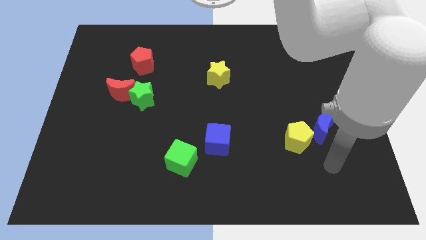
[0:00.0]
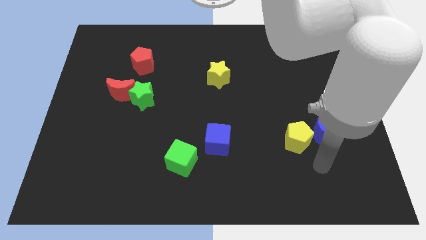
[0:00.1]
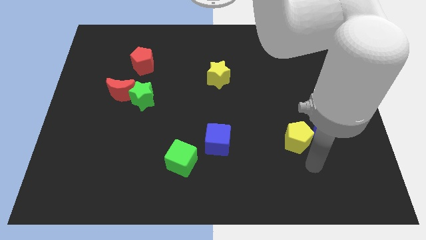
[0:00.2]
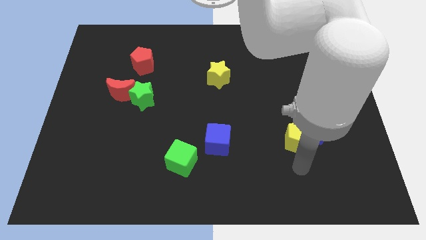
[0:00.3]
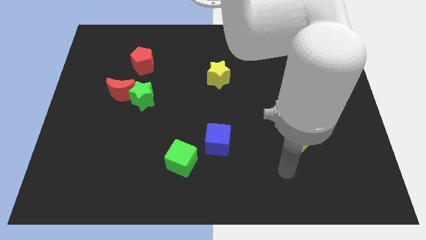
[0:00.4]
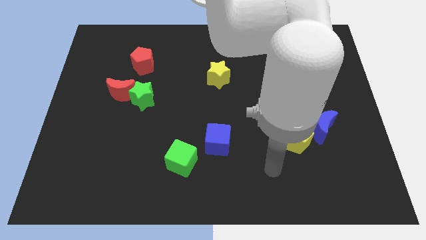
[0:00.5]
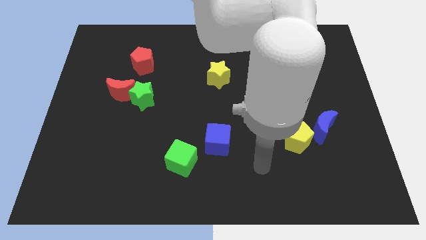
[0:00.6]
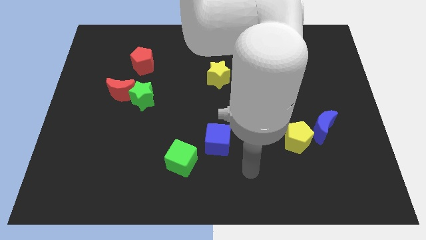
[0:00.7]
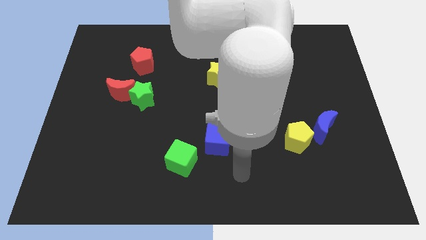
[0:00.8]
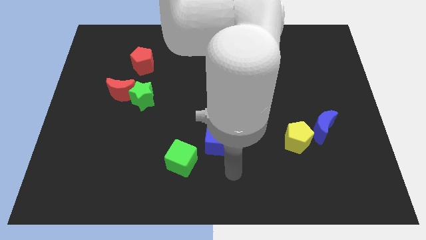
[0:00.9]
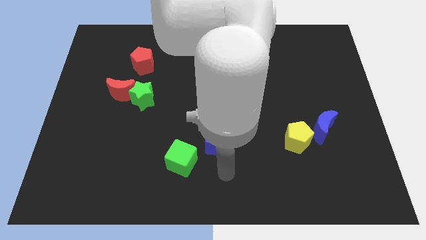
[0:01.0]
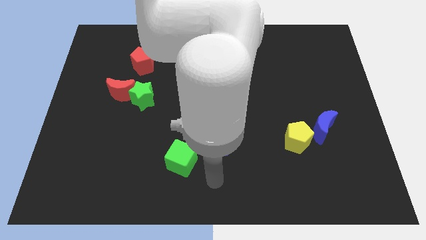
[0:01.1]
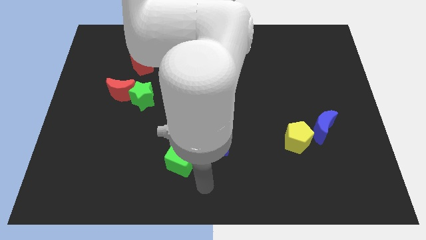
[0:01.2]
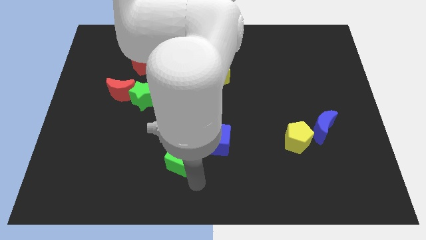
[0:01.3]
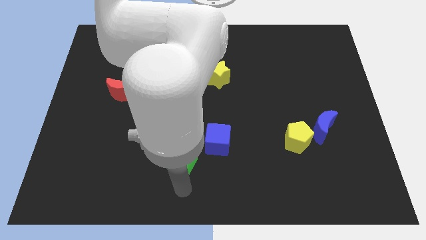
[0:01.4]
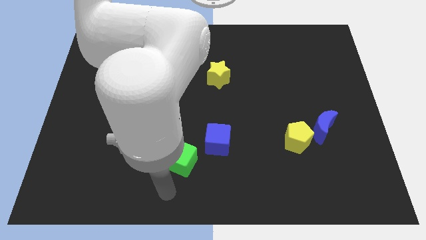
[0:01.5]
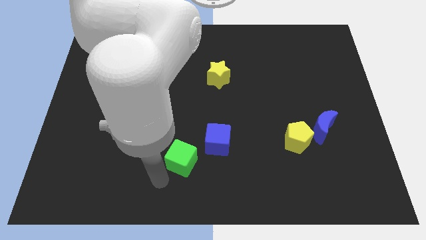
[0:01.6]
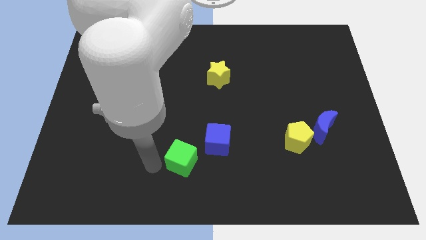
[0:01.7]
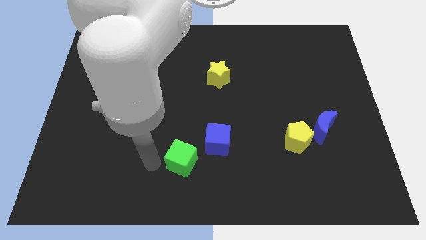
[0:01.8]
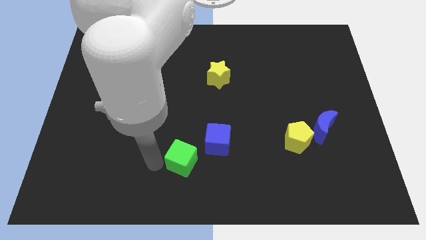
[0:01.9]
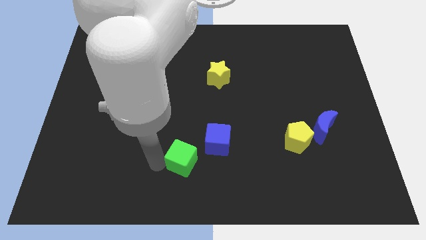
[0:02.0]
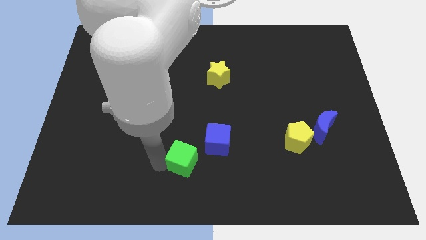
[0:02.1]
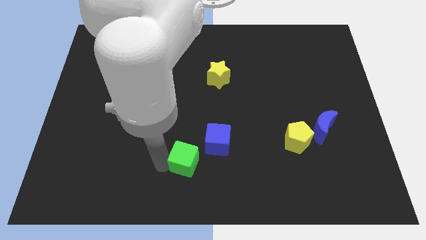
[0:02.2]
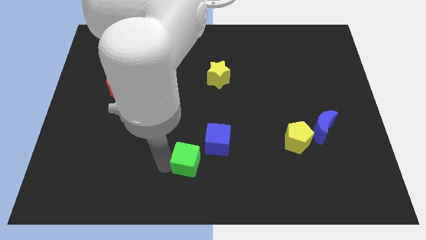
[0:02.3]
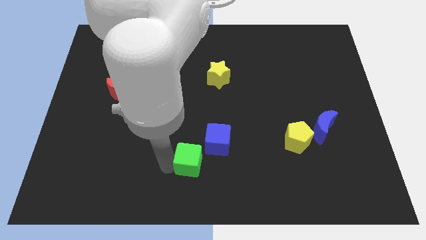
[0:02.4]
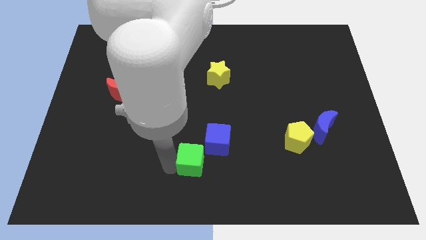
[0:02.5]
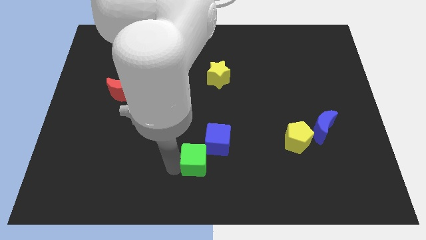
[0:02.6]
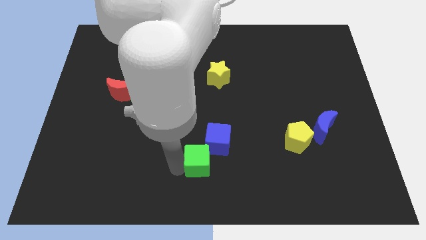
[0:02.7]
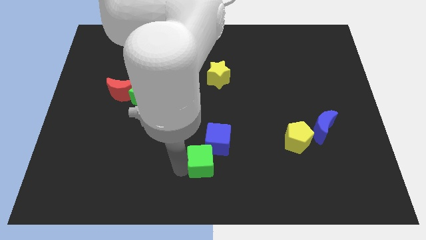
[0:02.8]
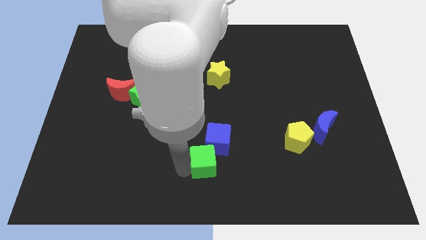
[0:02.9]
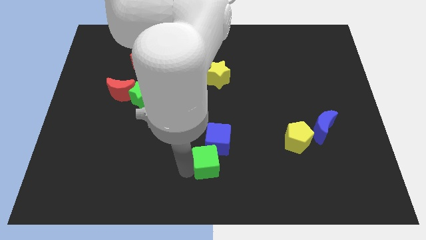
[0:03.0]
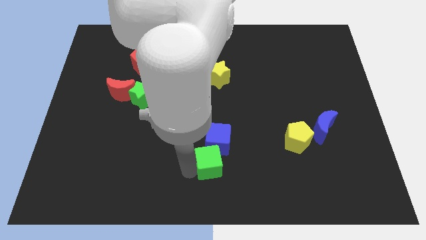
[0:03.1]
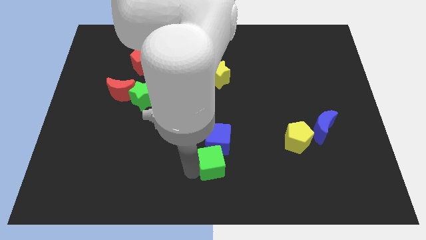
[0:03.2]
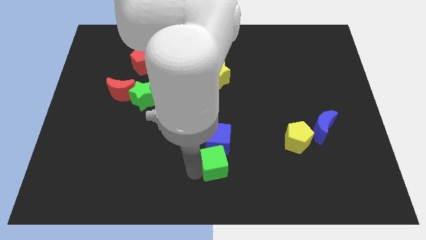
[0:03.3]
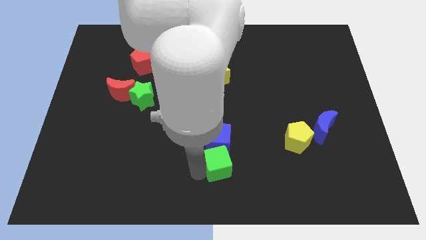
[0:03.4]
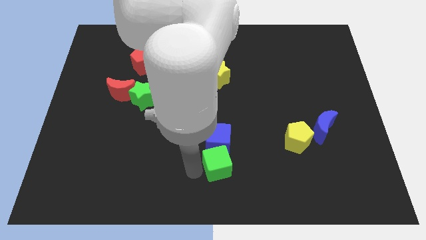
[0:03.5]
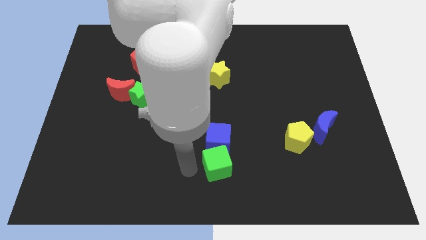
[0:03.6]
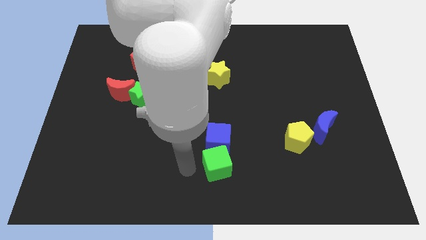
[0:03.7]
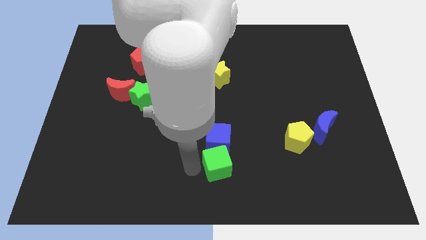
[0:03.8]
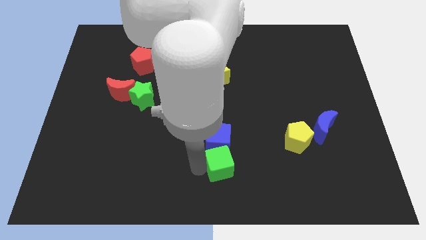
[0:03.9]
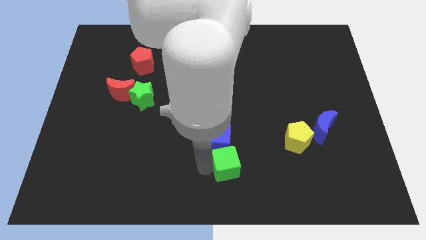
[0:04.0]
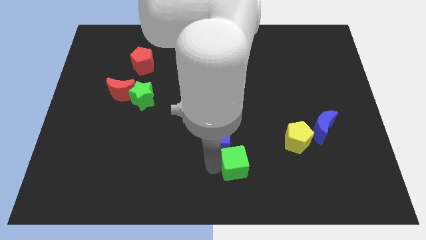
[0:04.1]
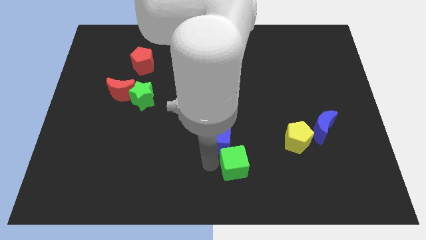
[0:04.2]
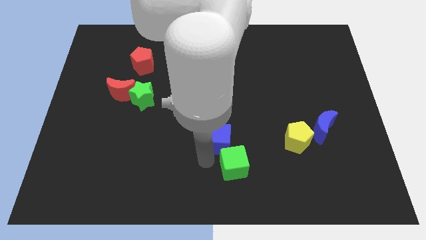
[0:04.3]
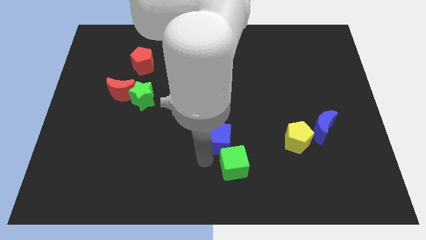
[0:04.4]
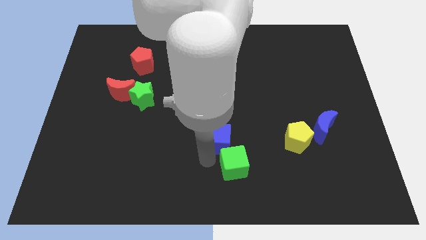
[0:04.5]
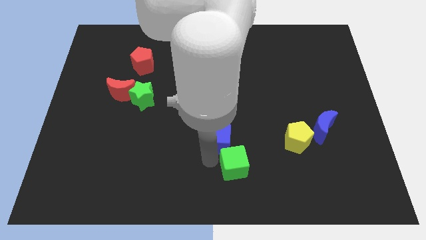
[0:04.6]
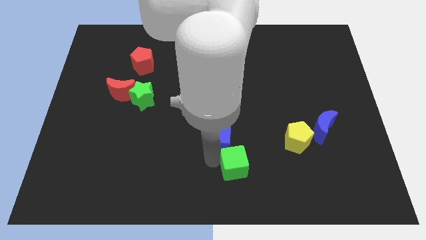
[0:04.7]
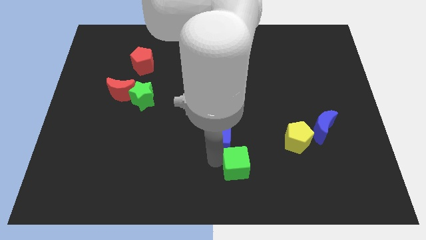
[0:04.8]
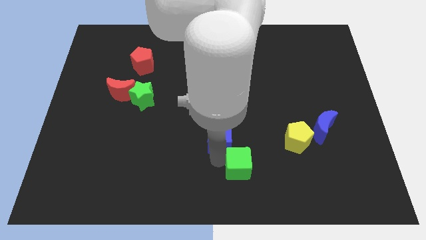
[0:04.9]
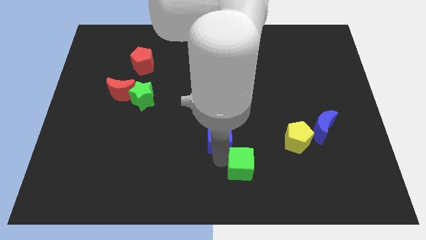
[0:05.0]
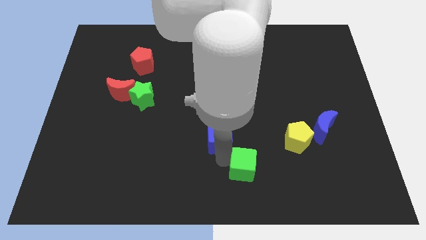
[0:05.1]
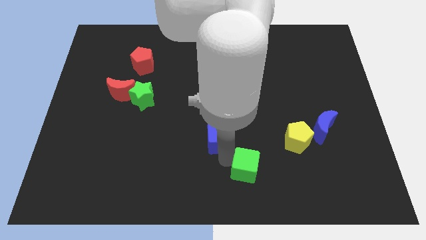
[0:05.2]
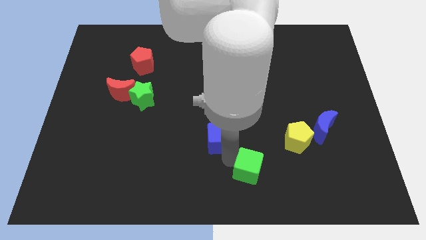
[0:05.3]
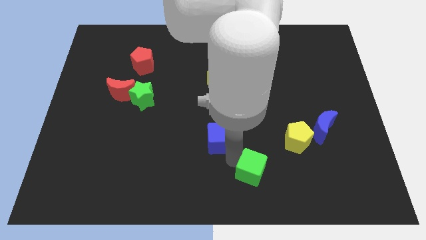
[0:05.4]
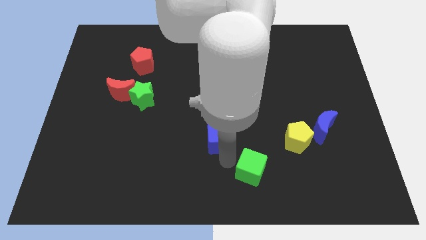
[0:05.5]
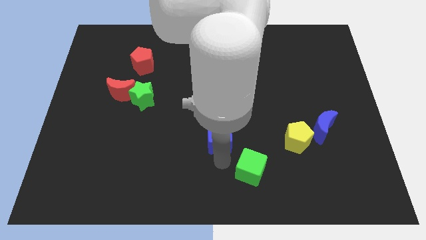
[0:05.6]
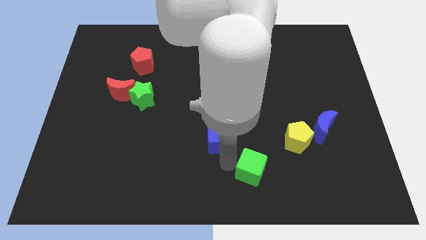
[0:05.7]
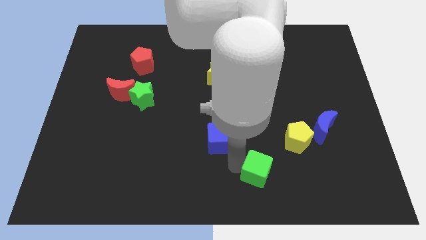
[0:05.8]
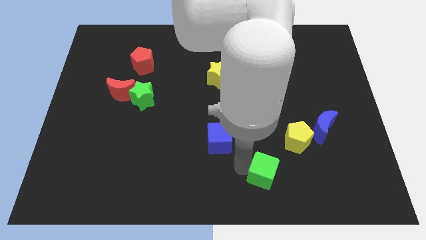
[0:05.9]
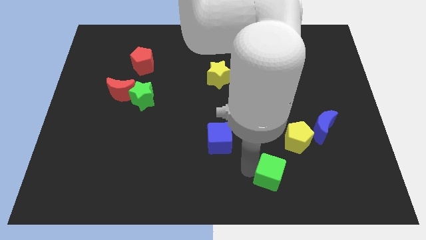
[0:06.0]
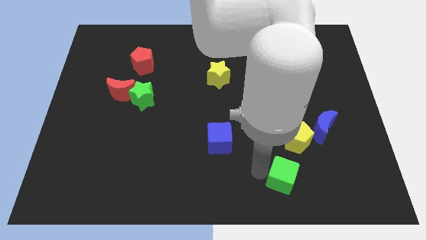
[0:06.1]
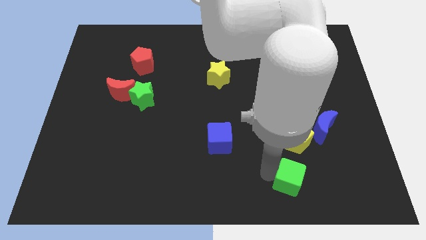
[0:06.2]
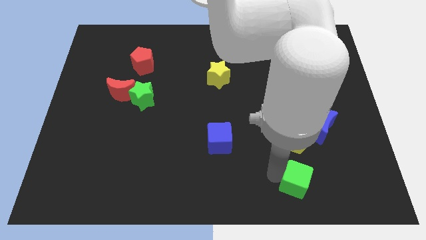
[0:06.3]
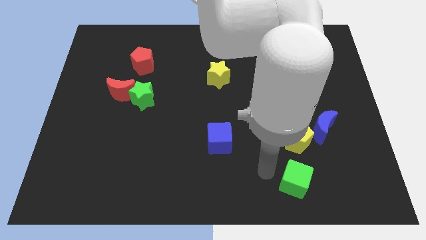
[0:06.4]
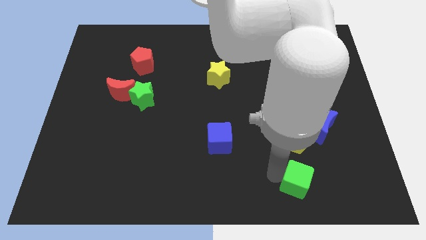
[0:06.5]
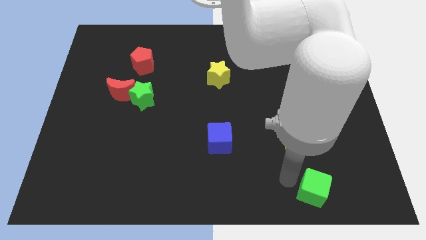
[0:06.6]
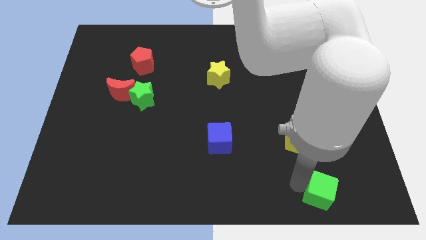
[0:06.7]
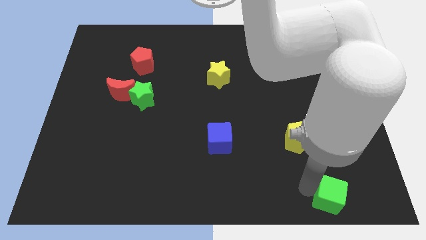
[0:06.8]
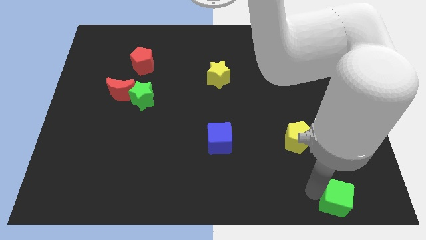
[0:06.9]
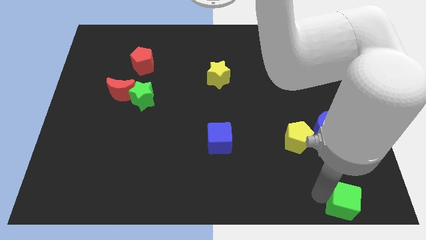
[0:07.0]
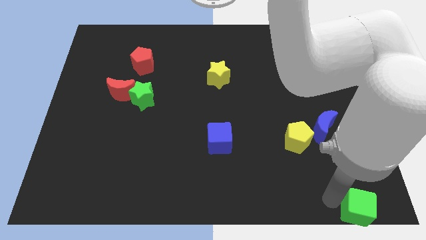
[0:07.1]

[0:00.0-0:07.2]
slide the green cube to the bottom right
